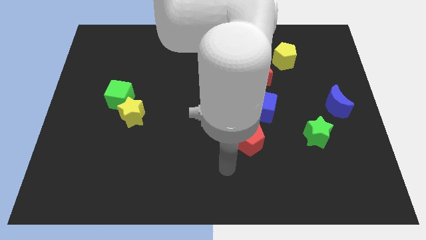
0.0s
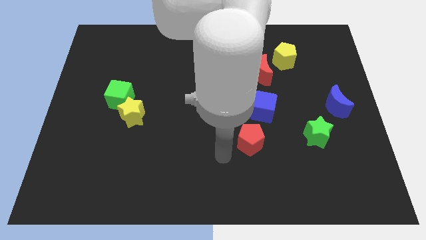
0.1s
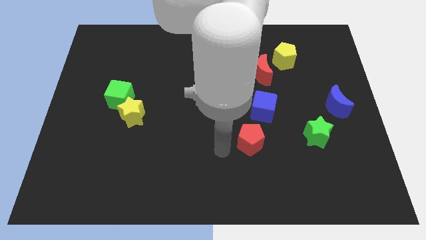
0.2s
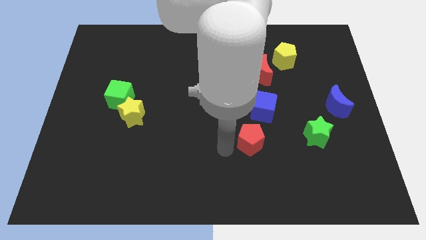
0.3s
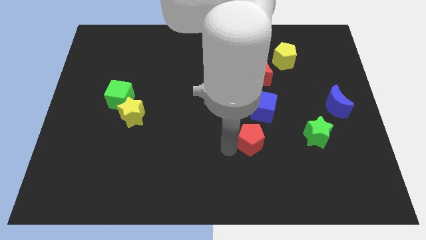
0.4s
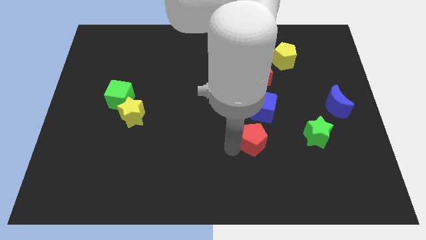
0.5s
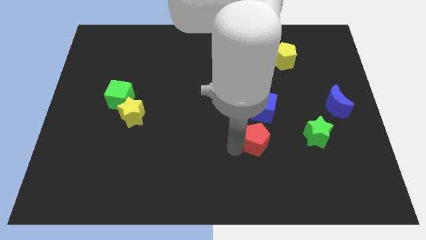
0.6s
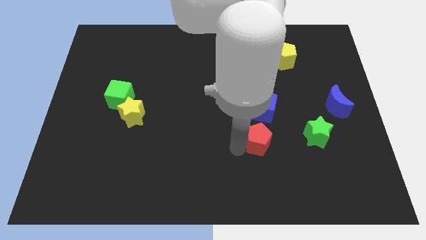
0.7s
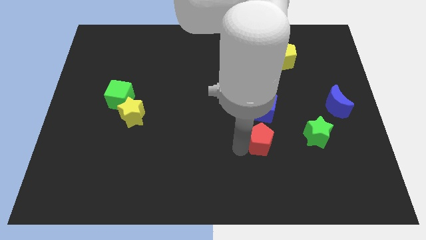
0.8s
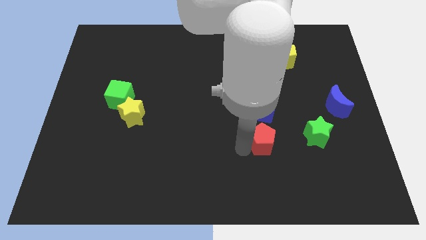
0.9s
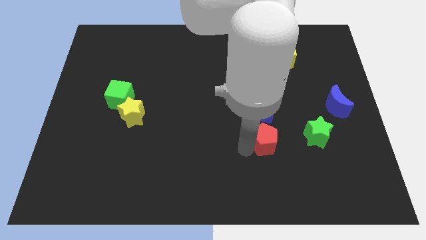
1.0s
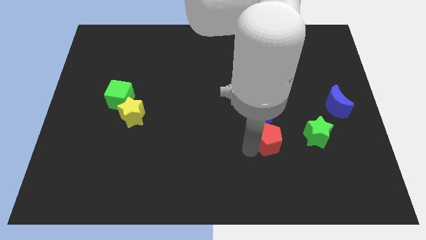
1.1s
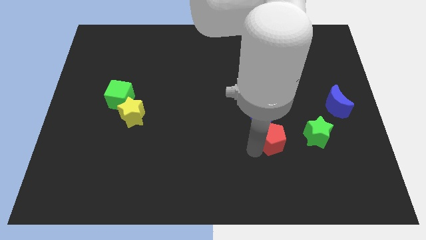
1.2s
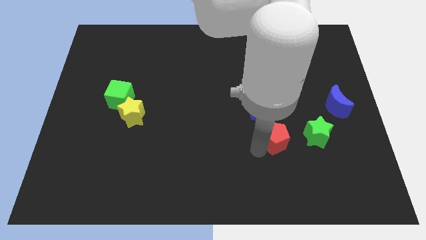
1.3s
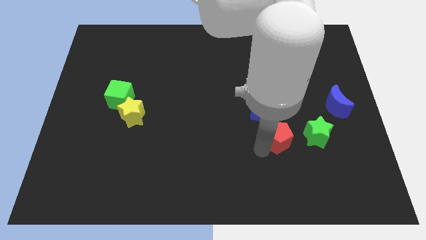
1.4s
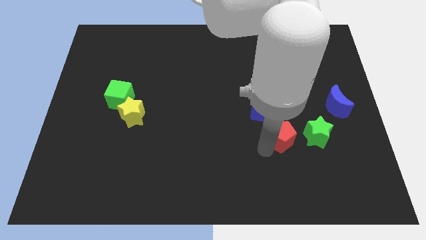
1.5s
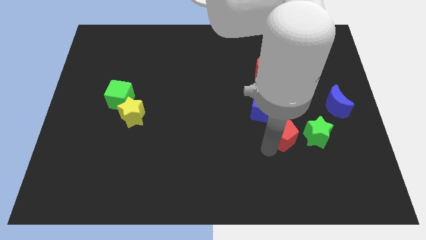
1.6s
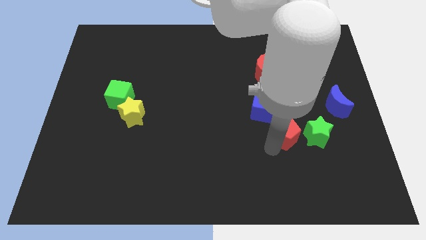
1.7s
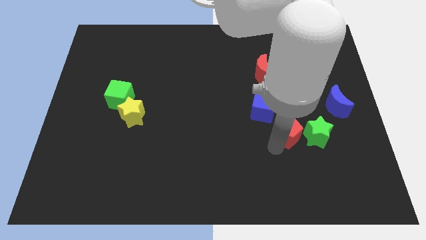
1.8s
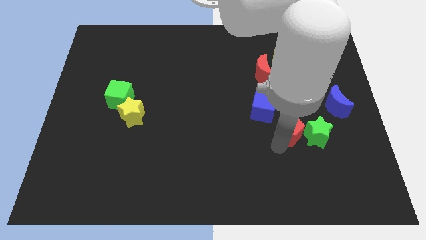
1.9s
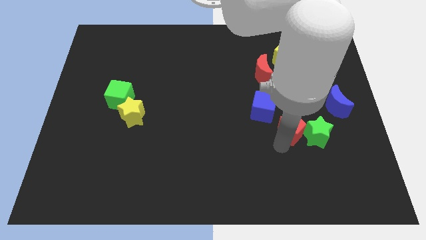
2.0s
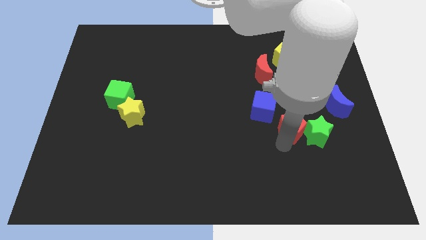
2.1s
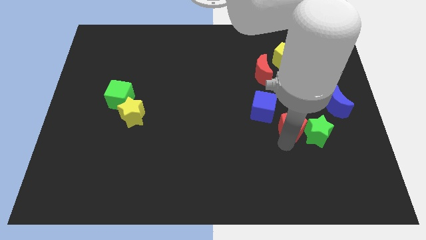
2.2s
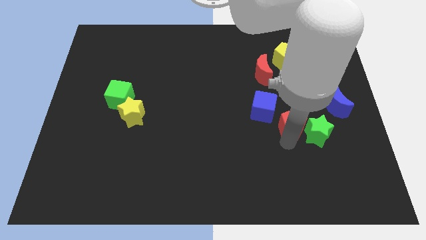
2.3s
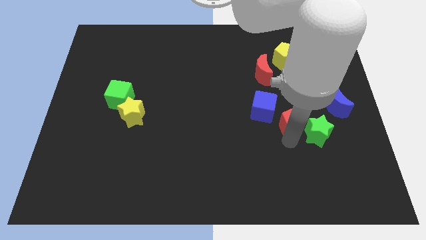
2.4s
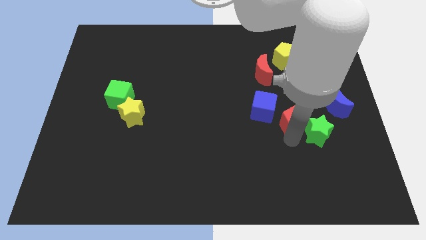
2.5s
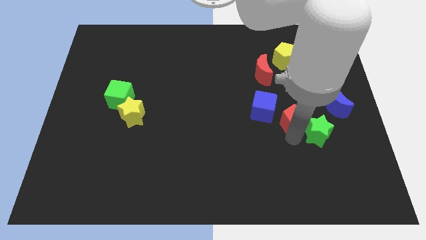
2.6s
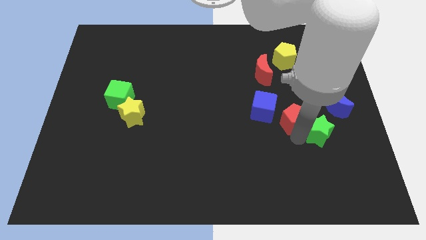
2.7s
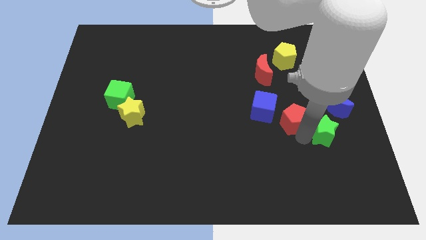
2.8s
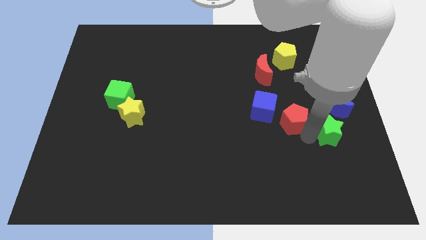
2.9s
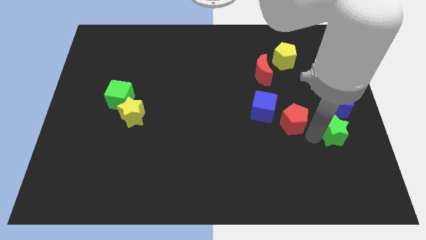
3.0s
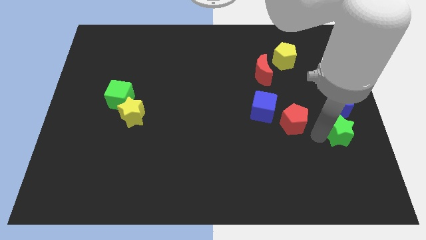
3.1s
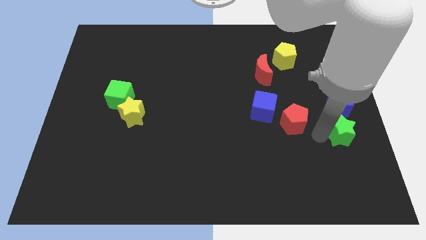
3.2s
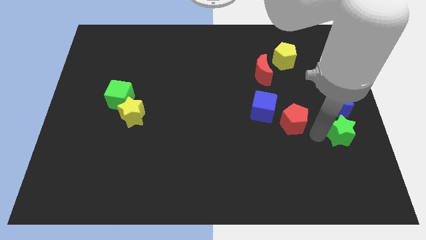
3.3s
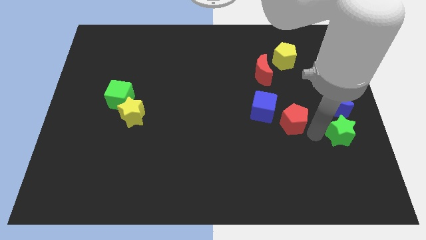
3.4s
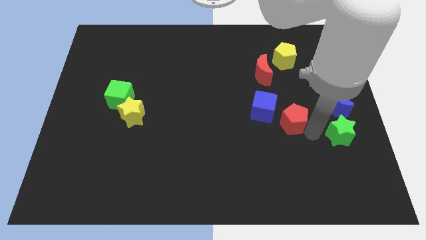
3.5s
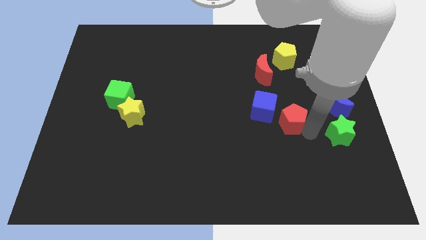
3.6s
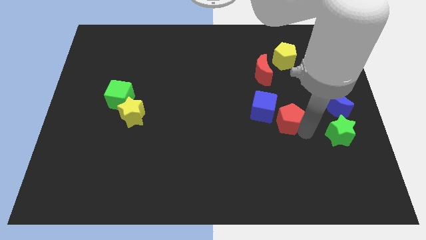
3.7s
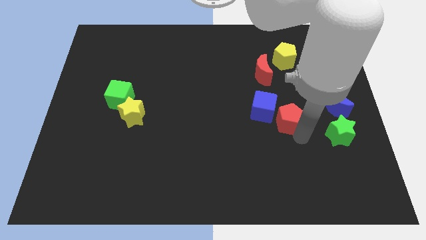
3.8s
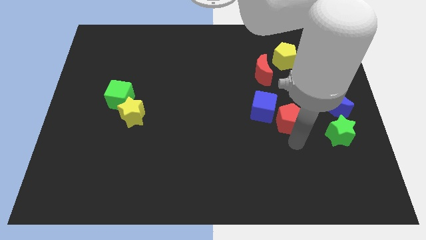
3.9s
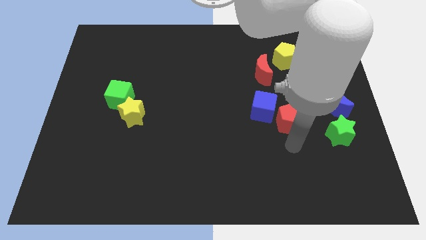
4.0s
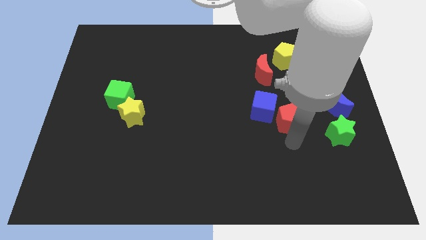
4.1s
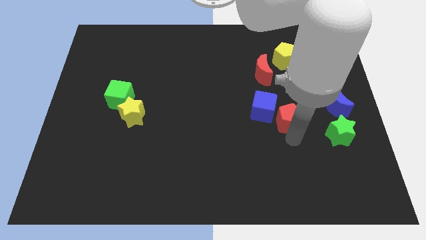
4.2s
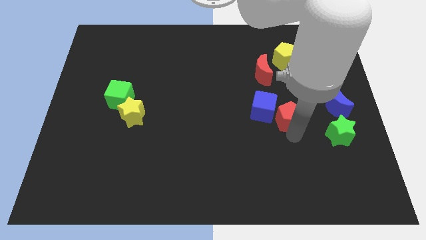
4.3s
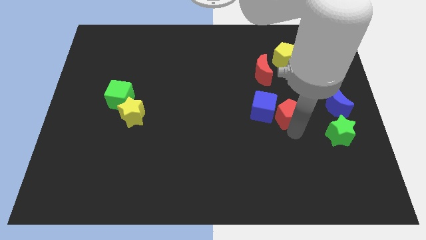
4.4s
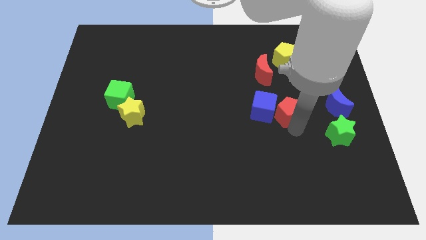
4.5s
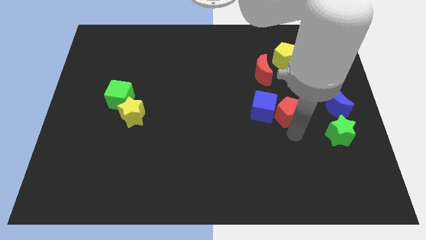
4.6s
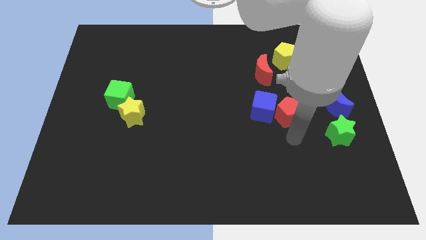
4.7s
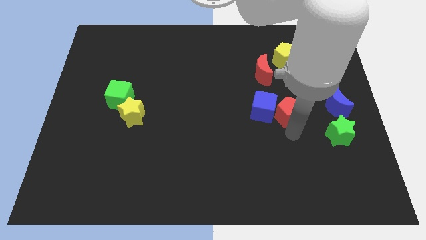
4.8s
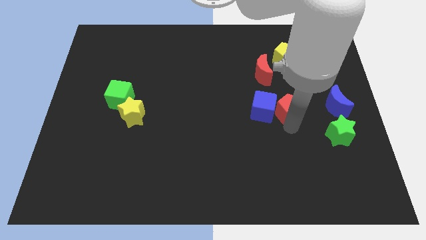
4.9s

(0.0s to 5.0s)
slide the red pentagon diagonally up and to the right of the blue cube

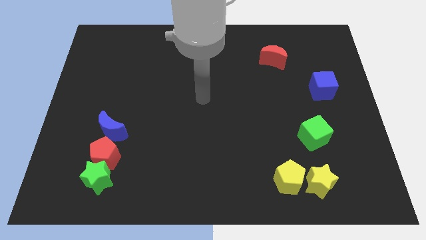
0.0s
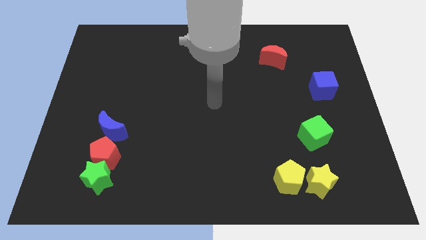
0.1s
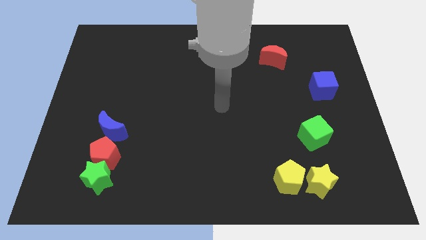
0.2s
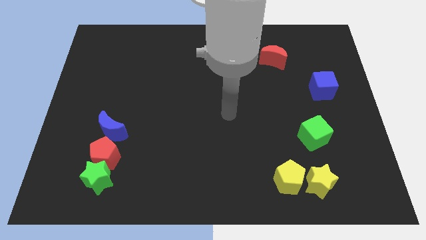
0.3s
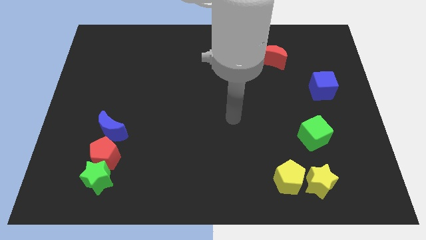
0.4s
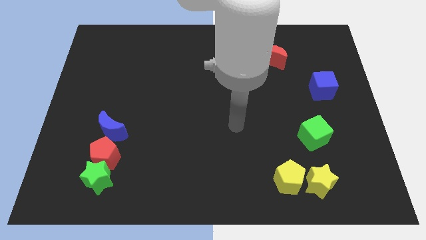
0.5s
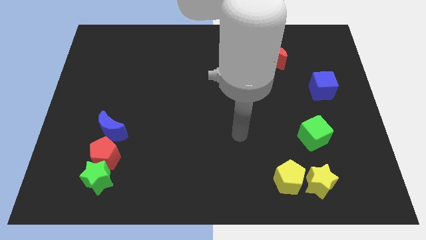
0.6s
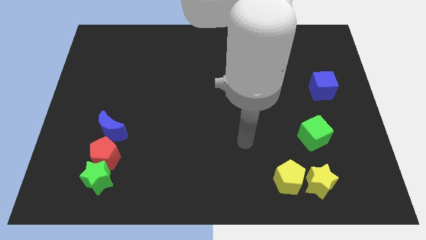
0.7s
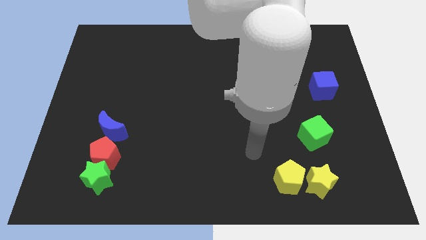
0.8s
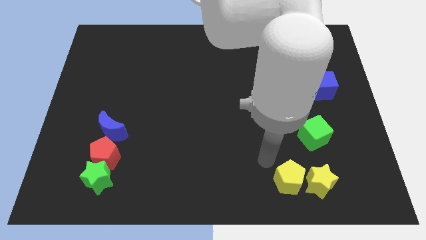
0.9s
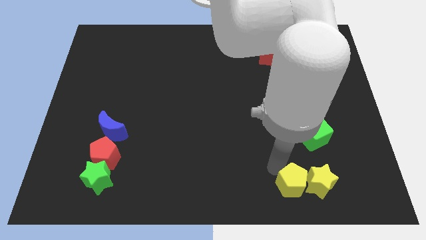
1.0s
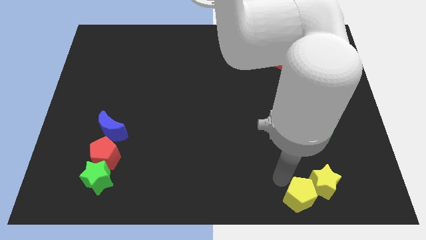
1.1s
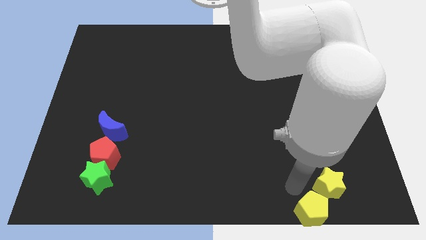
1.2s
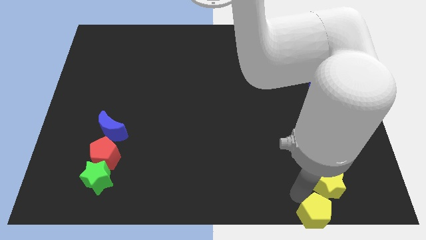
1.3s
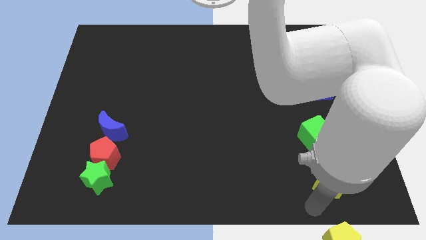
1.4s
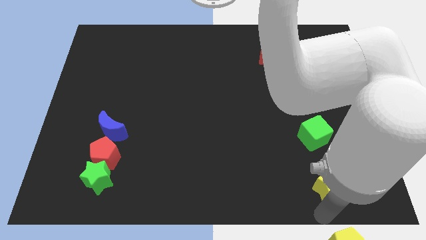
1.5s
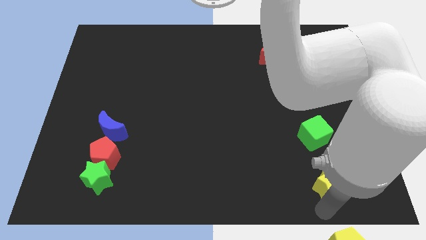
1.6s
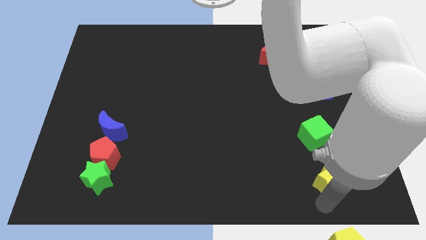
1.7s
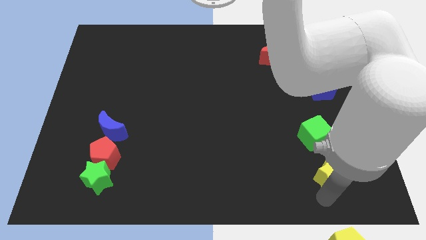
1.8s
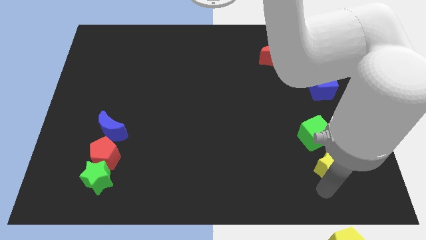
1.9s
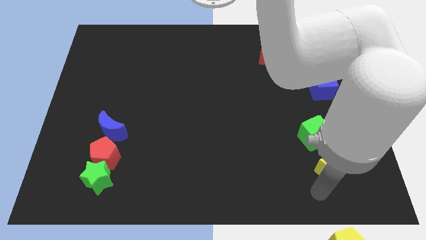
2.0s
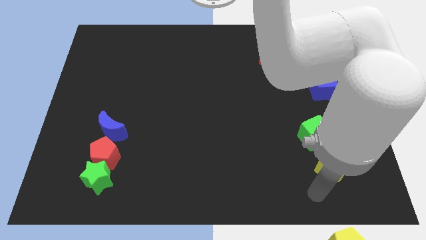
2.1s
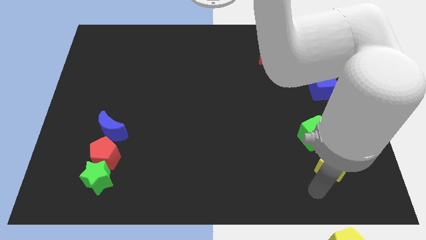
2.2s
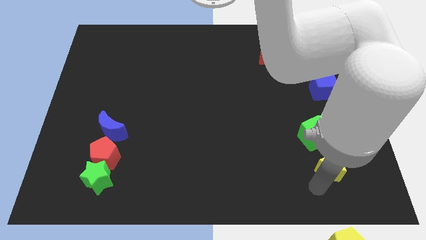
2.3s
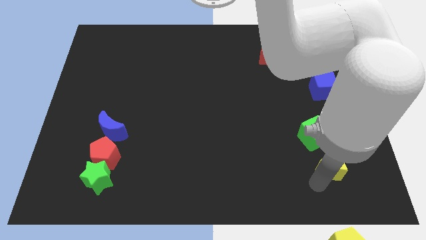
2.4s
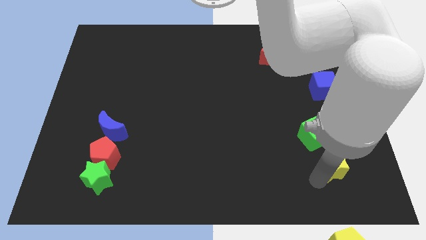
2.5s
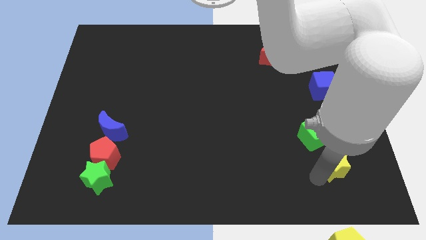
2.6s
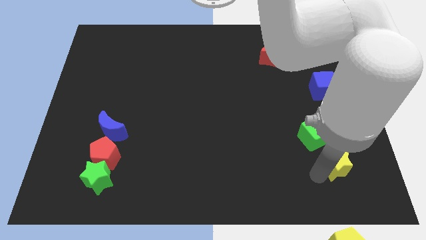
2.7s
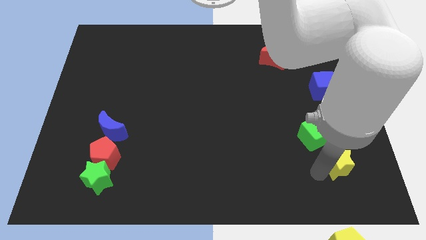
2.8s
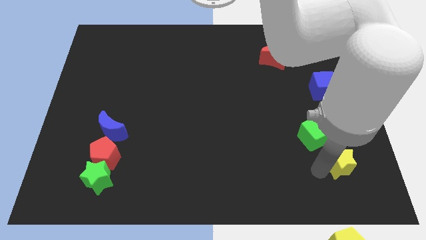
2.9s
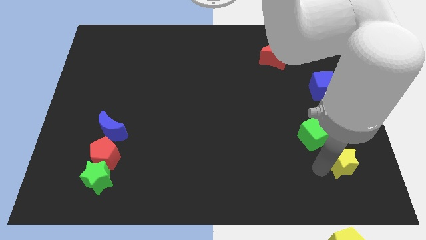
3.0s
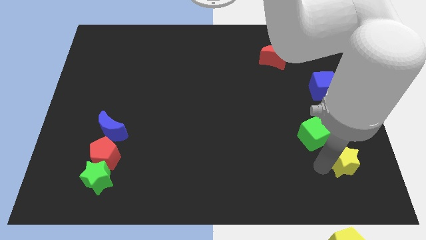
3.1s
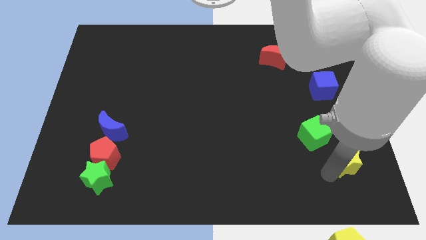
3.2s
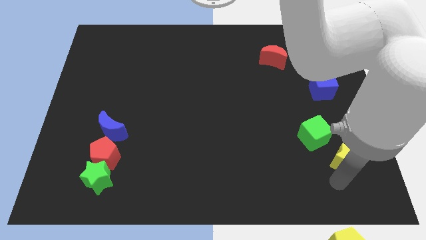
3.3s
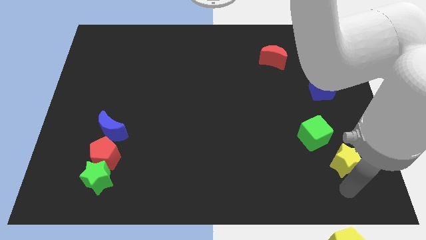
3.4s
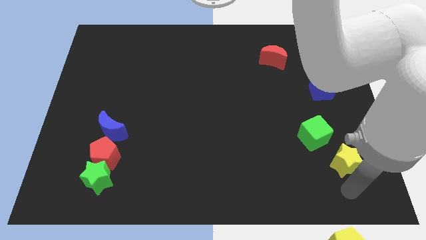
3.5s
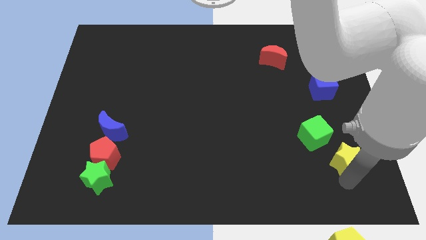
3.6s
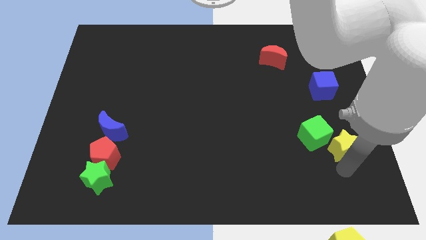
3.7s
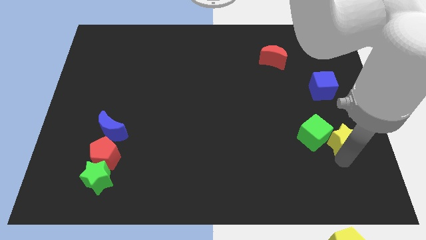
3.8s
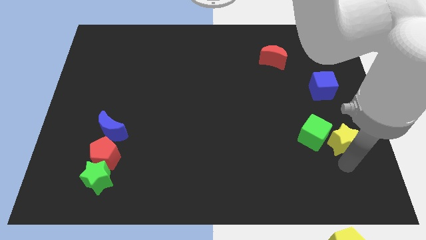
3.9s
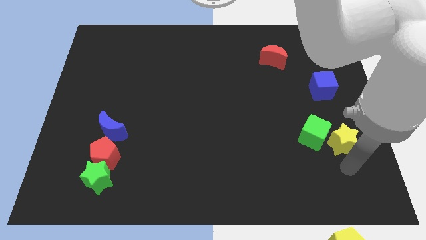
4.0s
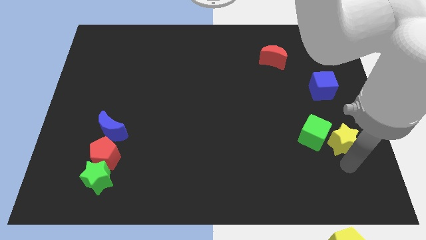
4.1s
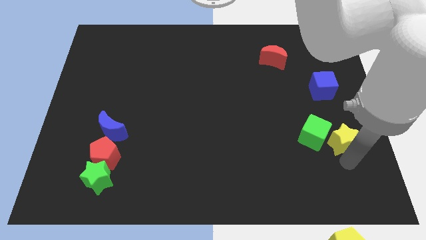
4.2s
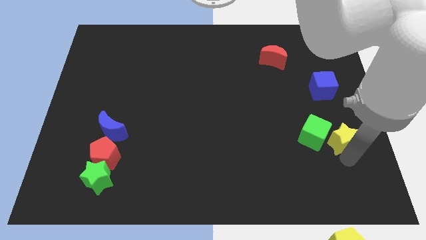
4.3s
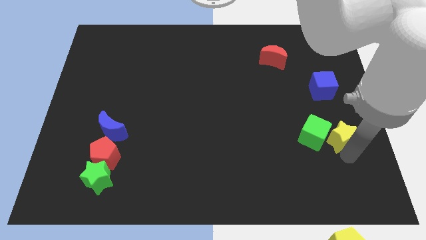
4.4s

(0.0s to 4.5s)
put the yellow star to the top right of the green cube
